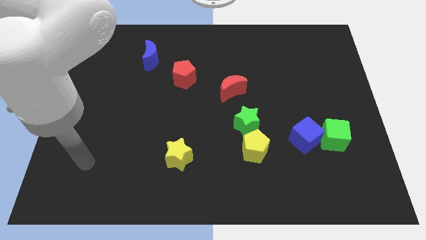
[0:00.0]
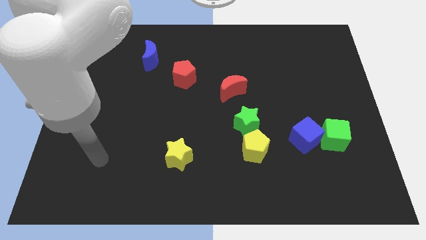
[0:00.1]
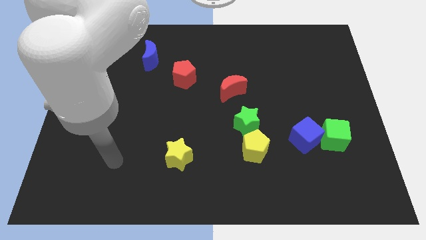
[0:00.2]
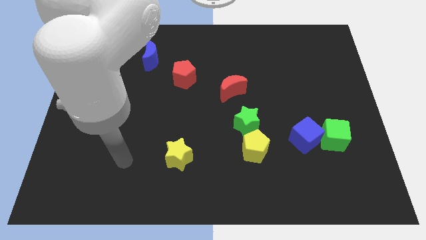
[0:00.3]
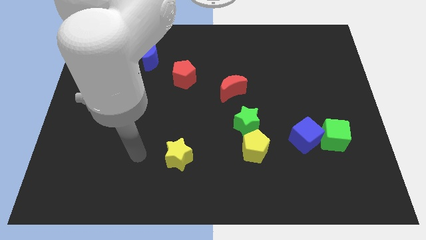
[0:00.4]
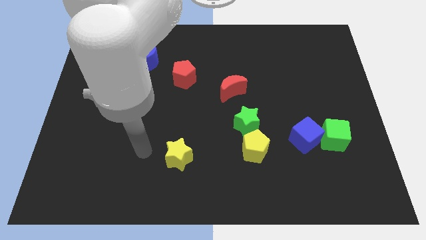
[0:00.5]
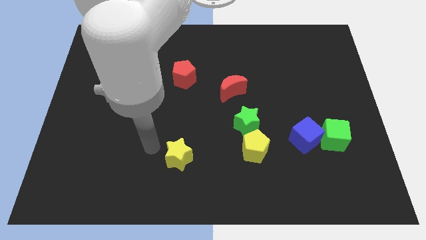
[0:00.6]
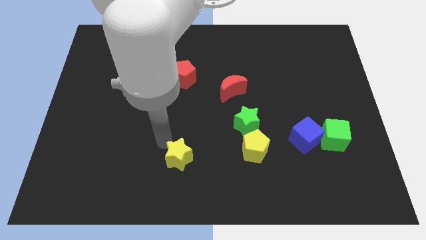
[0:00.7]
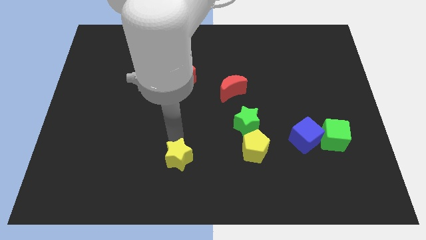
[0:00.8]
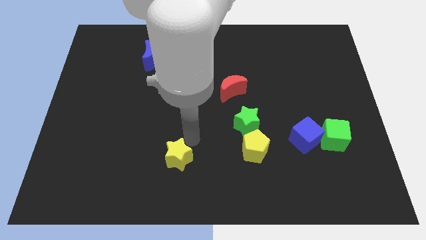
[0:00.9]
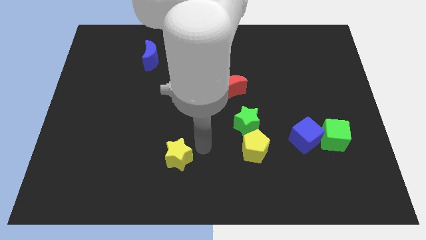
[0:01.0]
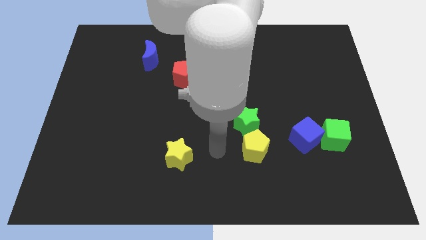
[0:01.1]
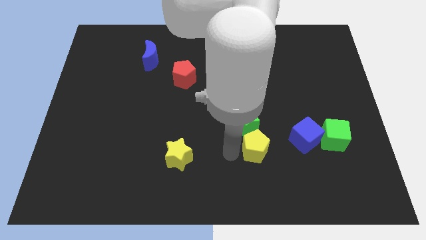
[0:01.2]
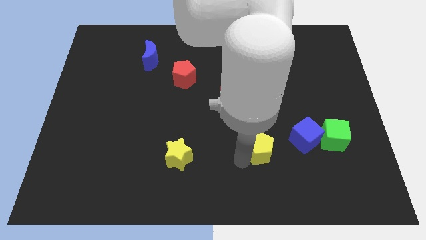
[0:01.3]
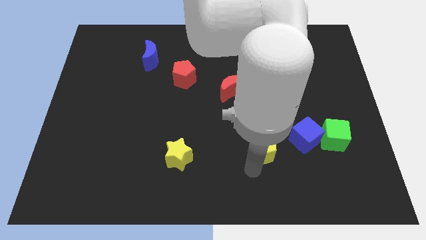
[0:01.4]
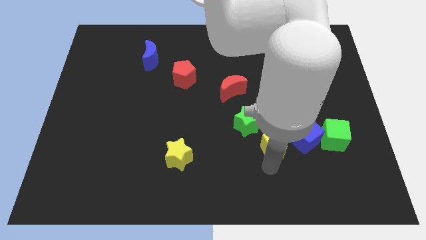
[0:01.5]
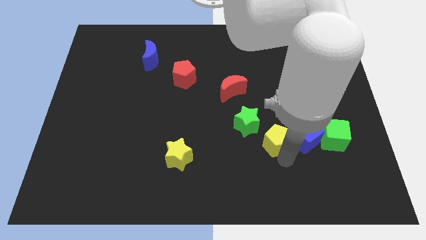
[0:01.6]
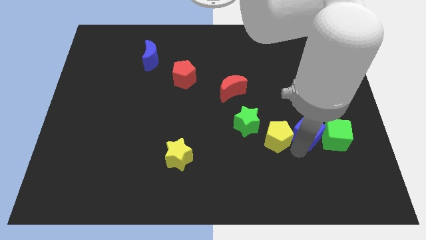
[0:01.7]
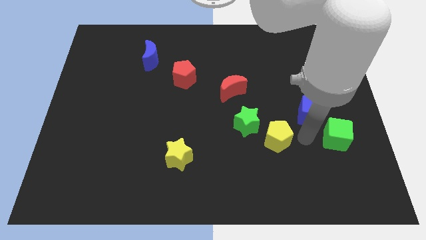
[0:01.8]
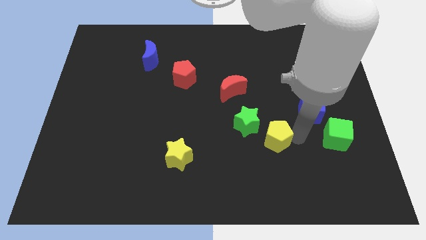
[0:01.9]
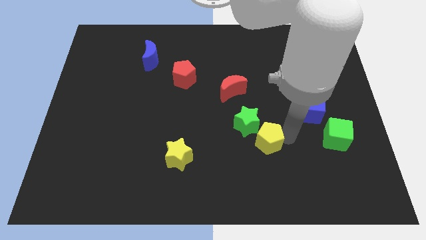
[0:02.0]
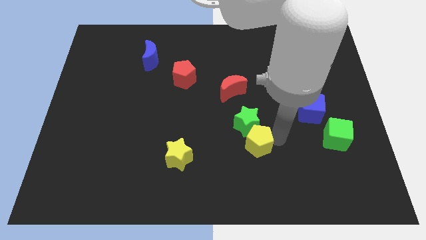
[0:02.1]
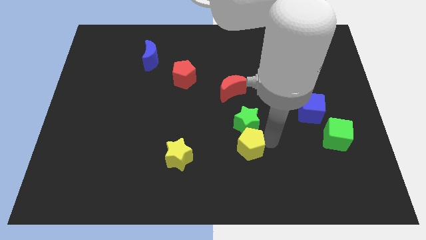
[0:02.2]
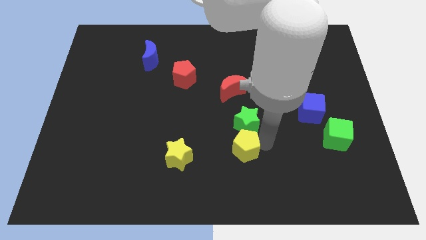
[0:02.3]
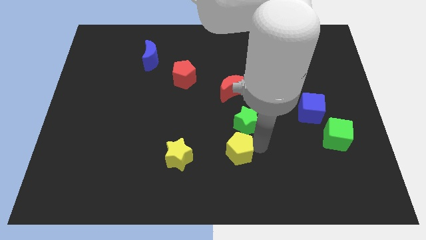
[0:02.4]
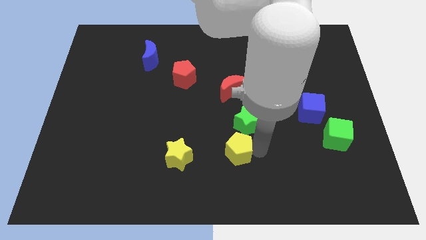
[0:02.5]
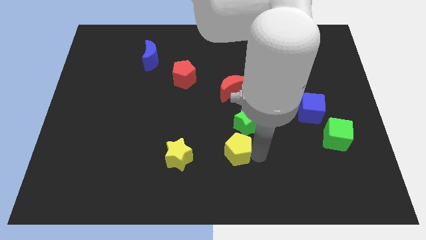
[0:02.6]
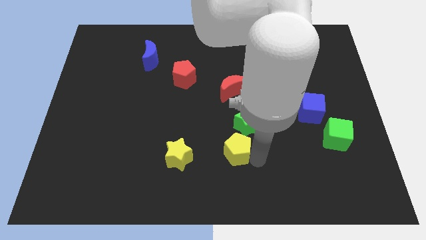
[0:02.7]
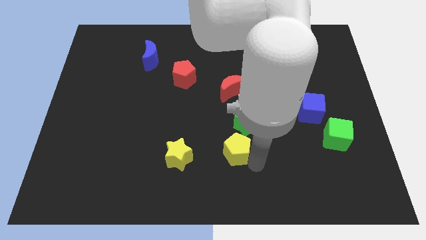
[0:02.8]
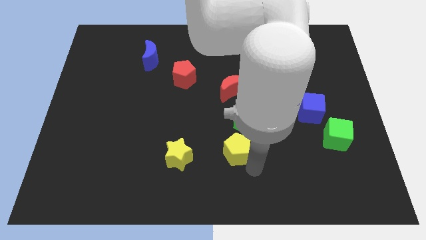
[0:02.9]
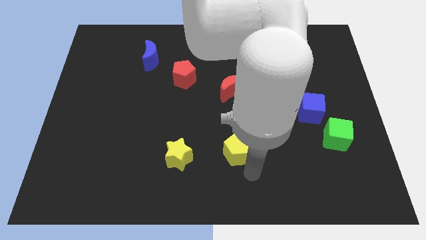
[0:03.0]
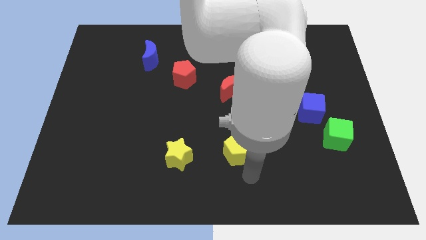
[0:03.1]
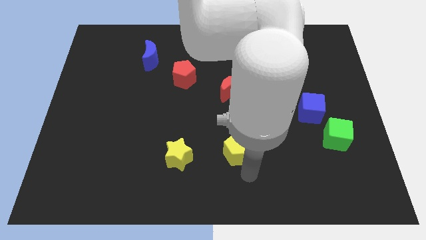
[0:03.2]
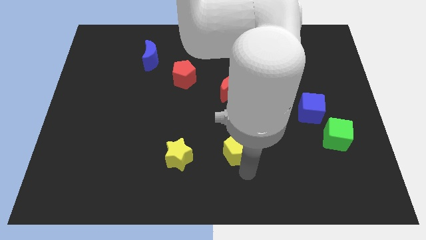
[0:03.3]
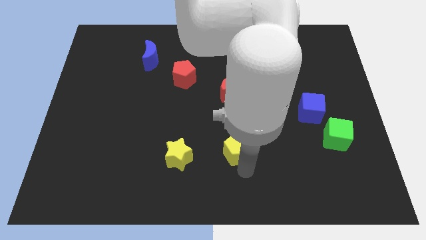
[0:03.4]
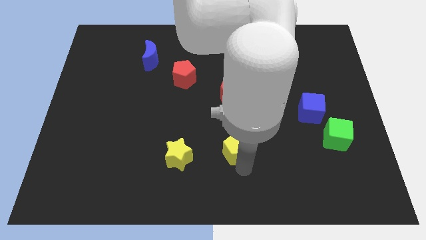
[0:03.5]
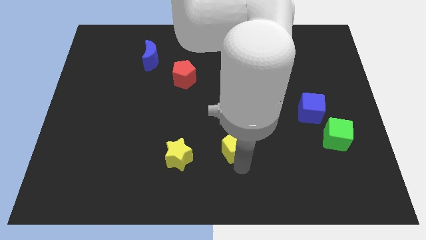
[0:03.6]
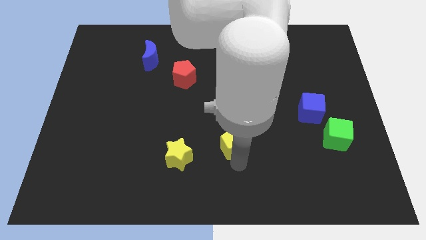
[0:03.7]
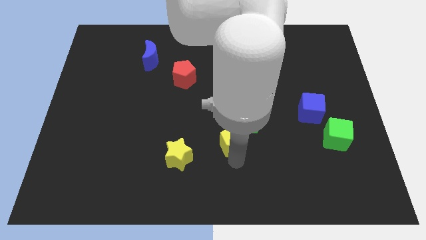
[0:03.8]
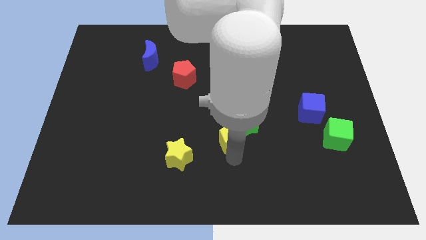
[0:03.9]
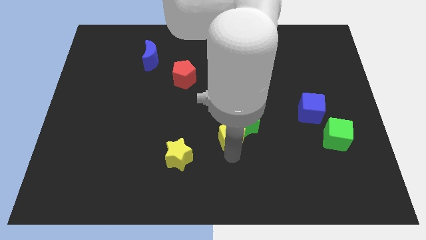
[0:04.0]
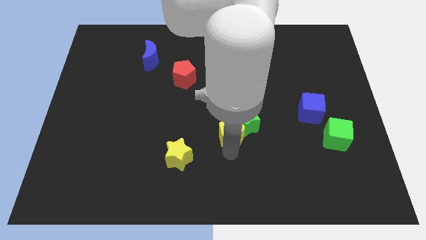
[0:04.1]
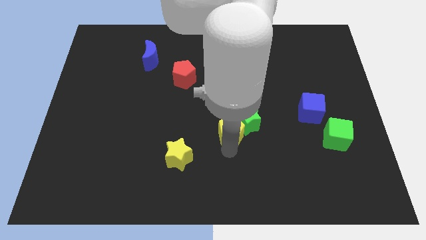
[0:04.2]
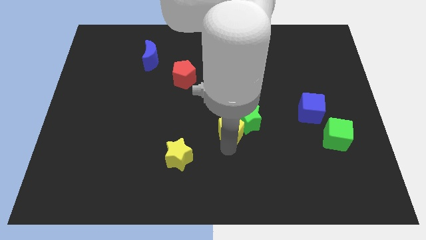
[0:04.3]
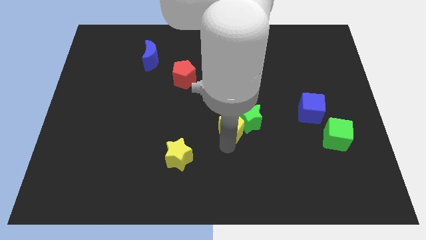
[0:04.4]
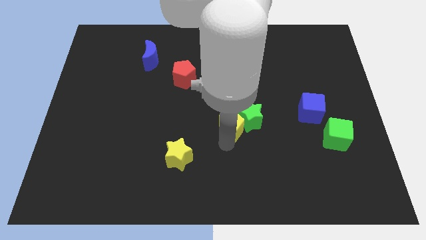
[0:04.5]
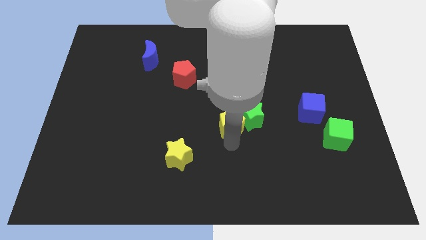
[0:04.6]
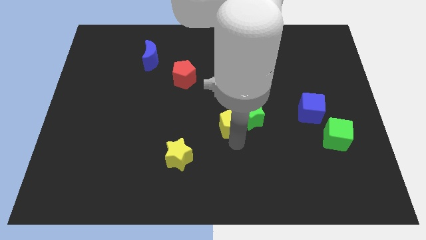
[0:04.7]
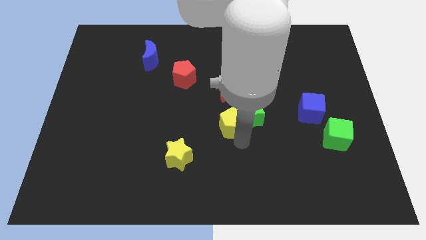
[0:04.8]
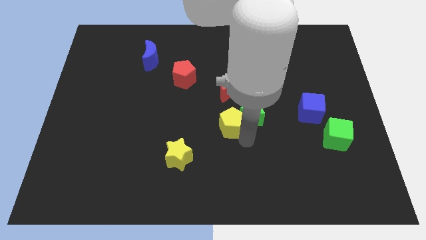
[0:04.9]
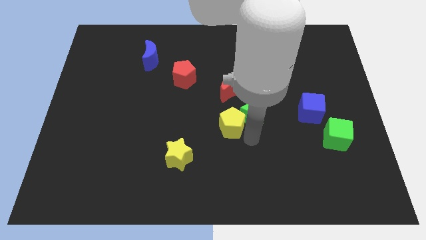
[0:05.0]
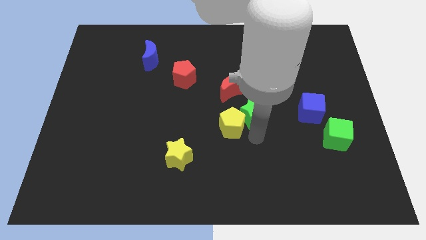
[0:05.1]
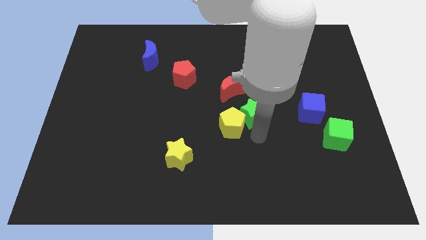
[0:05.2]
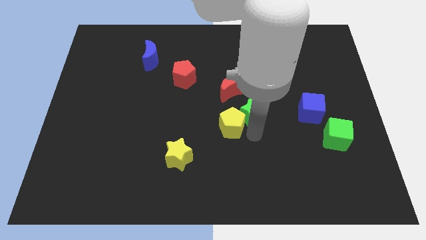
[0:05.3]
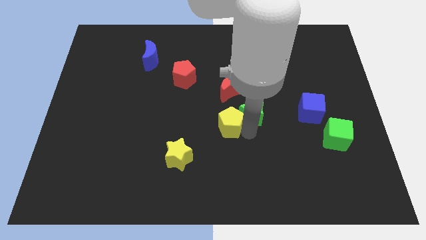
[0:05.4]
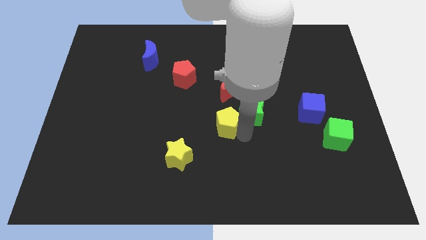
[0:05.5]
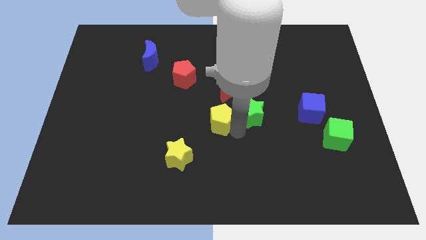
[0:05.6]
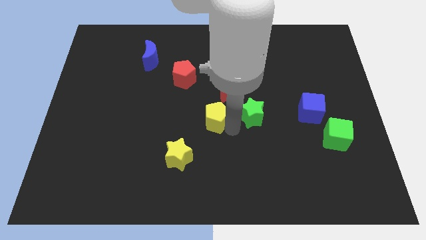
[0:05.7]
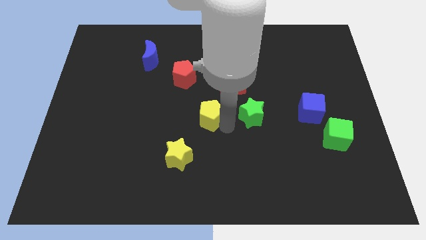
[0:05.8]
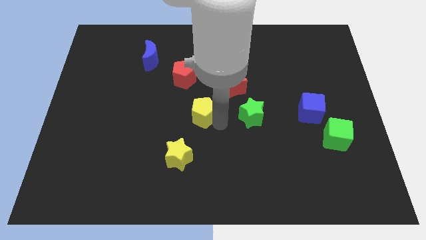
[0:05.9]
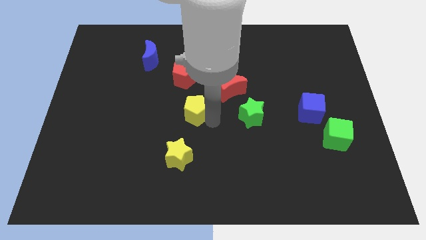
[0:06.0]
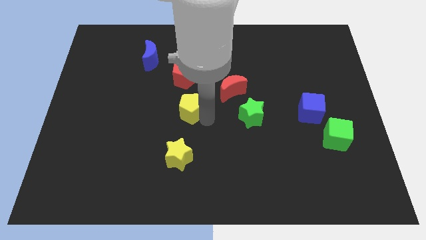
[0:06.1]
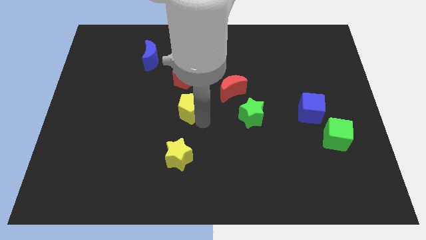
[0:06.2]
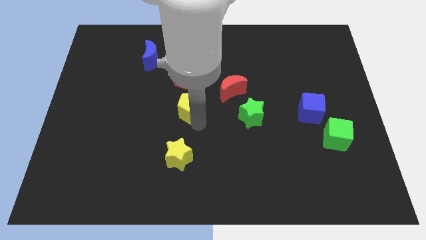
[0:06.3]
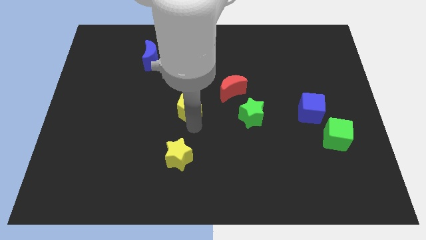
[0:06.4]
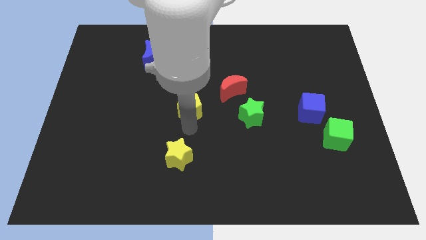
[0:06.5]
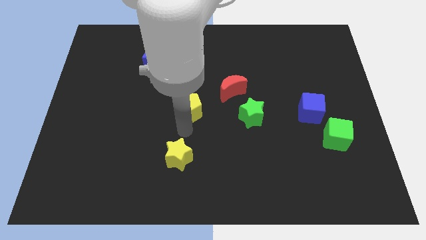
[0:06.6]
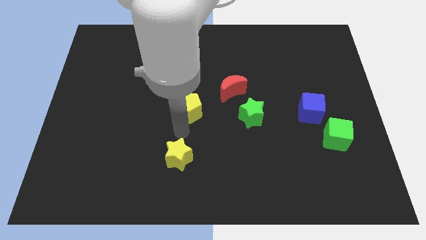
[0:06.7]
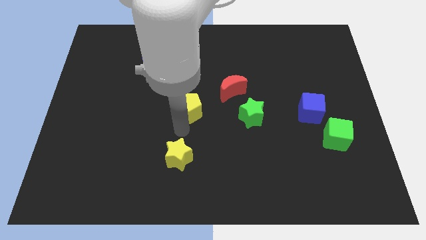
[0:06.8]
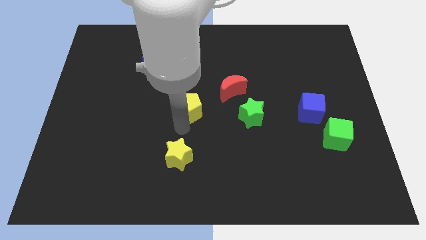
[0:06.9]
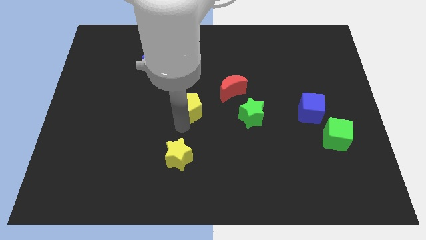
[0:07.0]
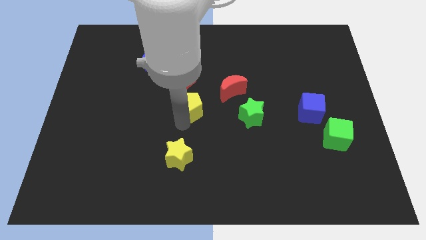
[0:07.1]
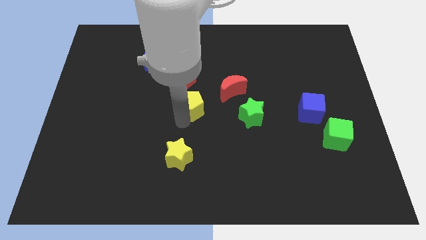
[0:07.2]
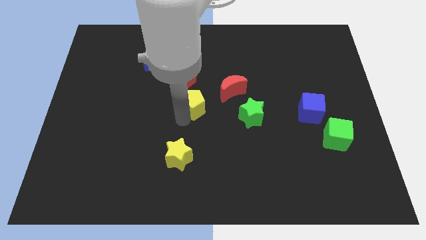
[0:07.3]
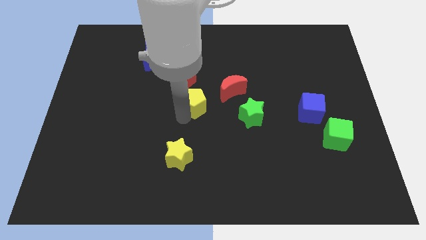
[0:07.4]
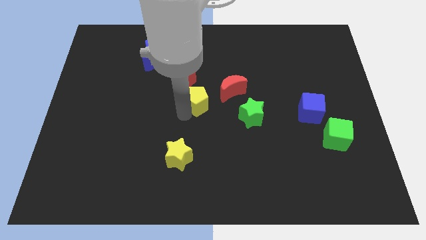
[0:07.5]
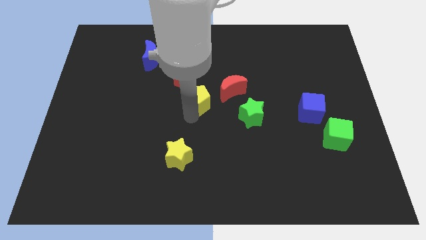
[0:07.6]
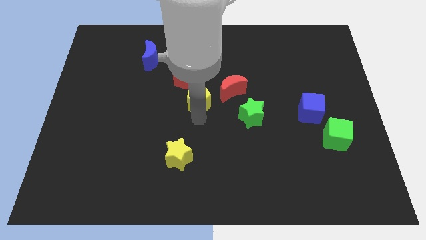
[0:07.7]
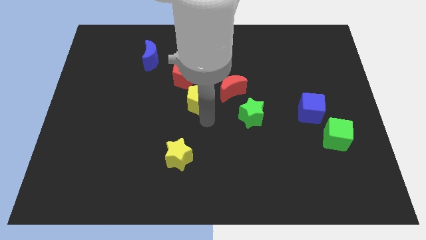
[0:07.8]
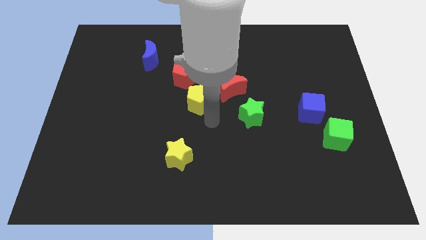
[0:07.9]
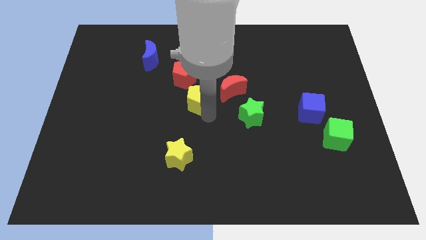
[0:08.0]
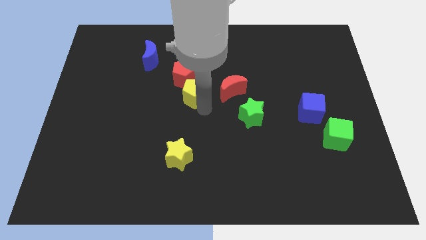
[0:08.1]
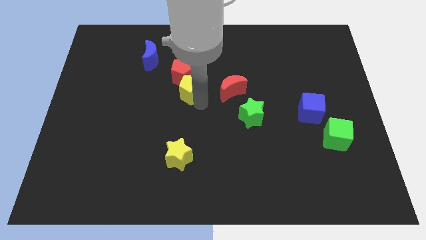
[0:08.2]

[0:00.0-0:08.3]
move the yellow pentagon to the red pentagon
